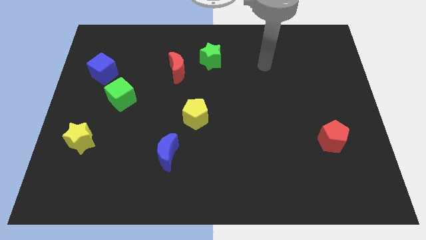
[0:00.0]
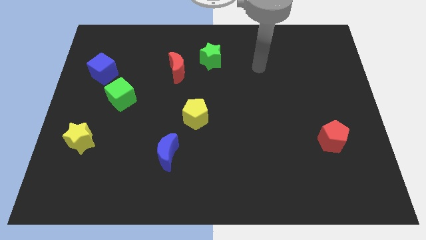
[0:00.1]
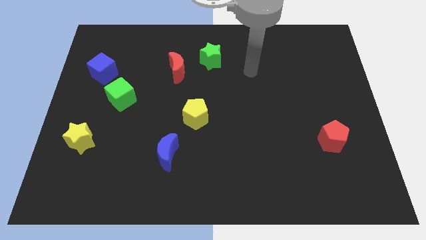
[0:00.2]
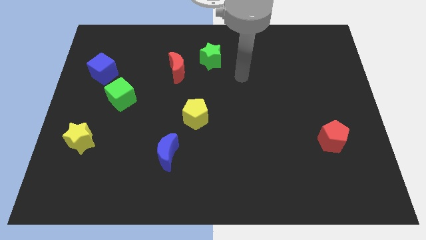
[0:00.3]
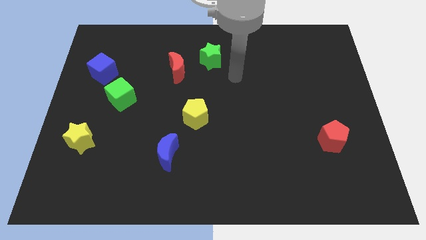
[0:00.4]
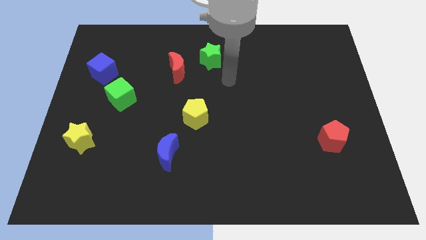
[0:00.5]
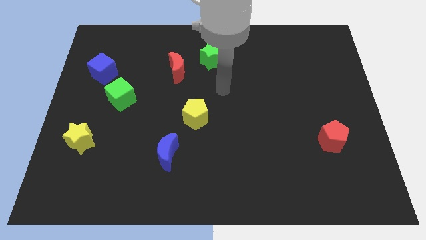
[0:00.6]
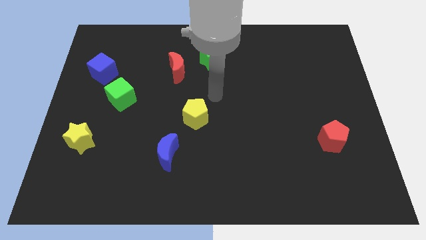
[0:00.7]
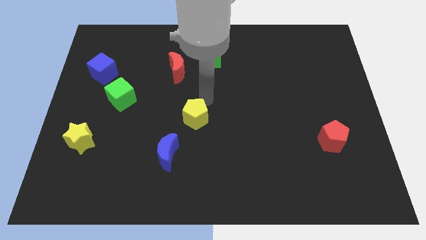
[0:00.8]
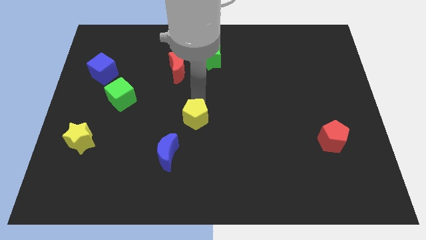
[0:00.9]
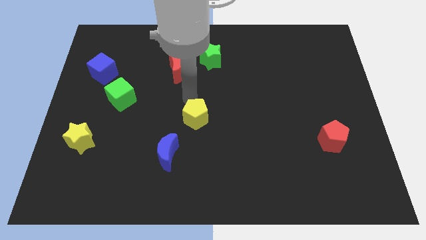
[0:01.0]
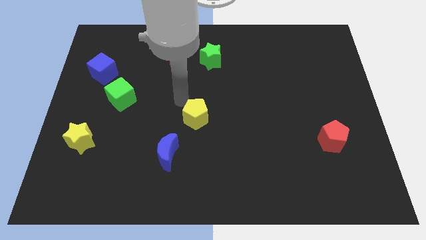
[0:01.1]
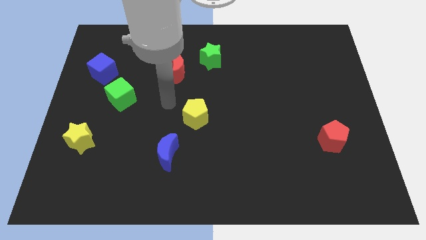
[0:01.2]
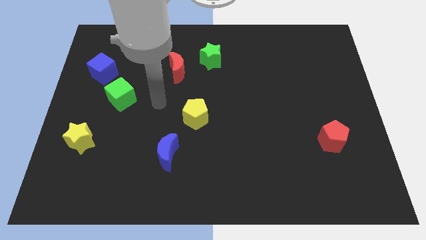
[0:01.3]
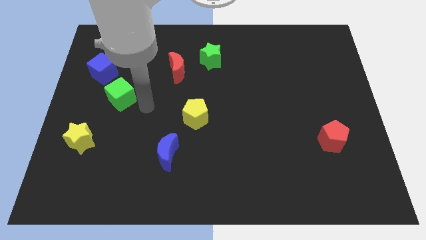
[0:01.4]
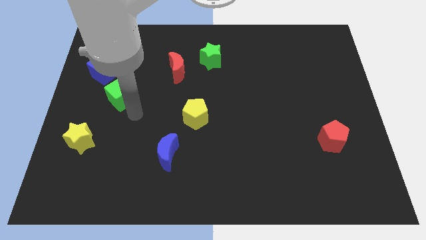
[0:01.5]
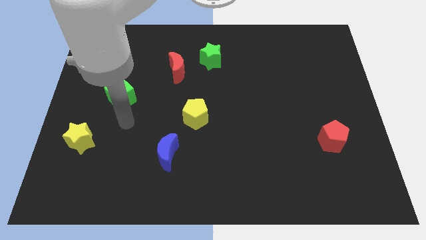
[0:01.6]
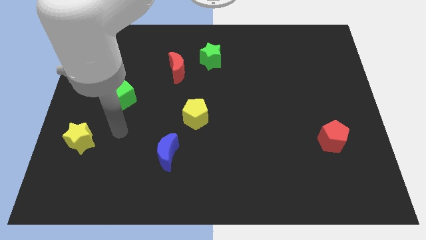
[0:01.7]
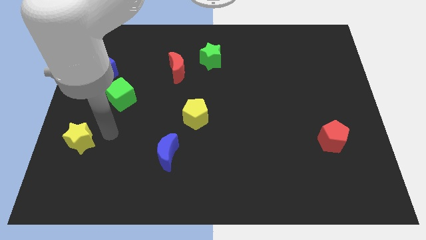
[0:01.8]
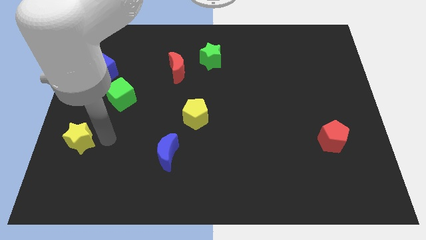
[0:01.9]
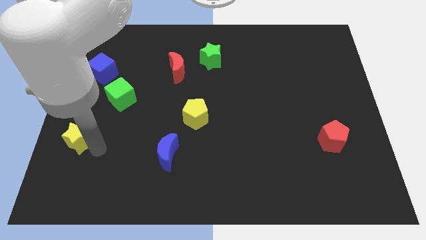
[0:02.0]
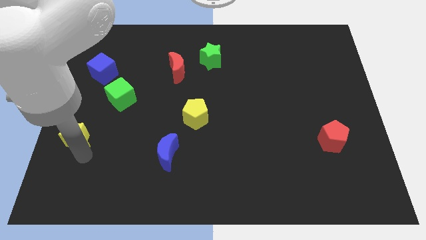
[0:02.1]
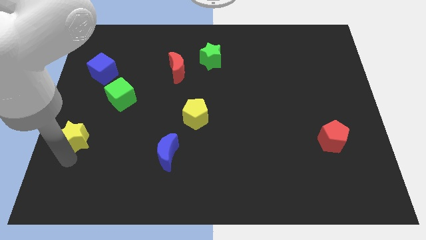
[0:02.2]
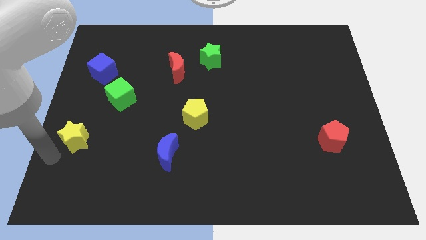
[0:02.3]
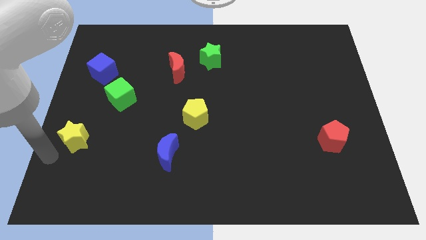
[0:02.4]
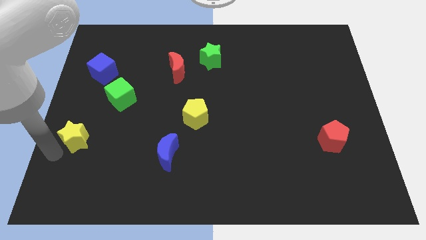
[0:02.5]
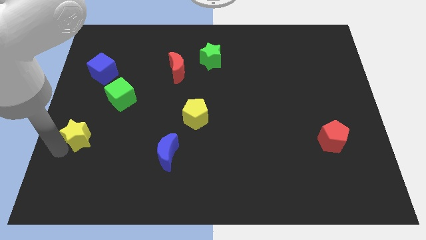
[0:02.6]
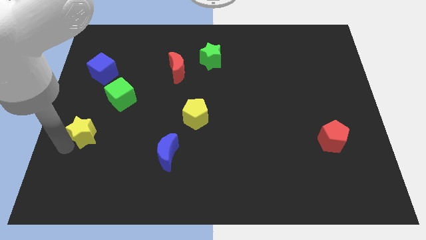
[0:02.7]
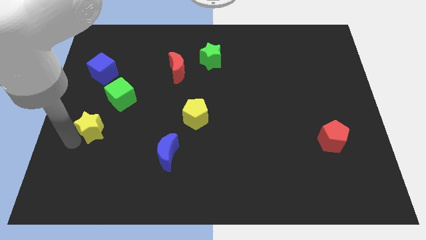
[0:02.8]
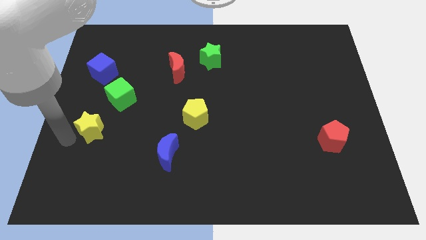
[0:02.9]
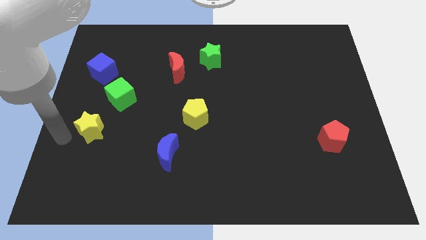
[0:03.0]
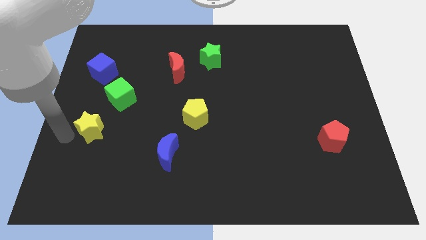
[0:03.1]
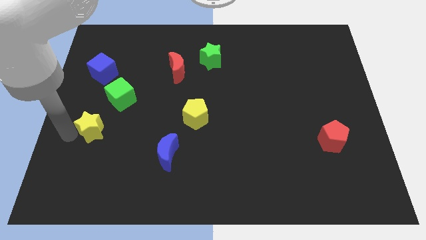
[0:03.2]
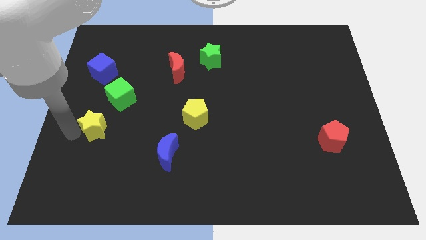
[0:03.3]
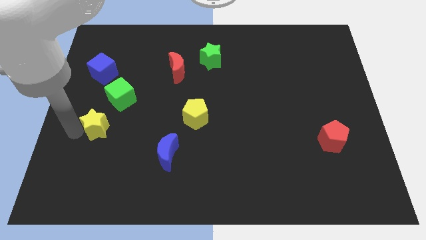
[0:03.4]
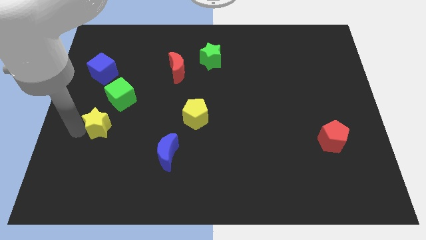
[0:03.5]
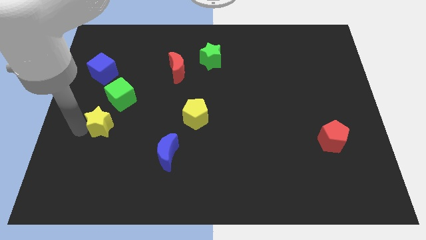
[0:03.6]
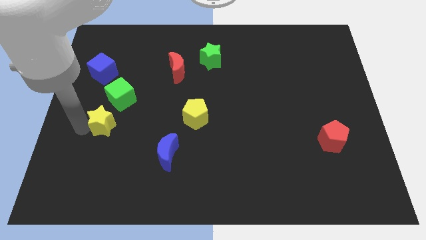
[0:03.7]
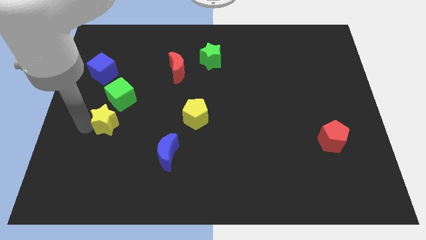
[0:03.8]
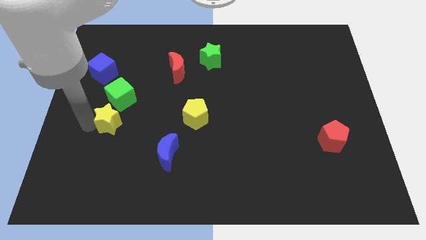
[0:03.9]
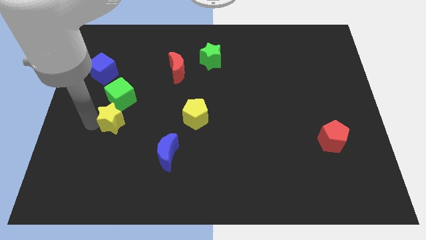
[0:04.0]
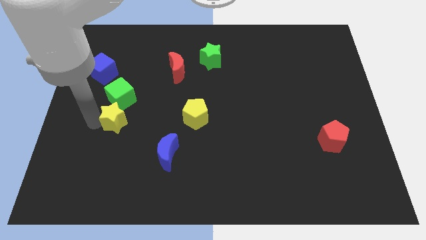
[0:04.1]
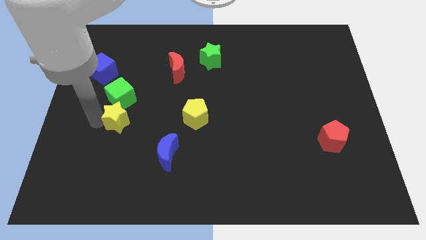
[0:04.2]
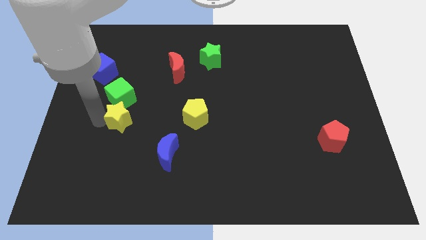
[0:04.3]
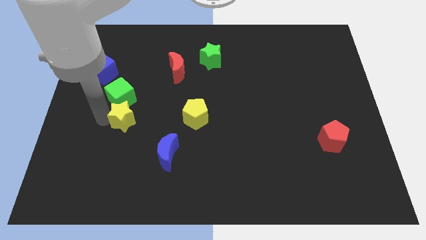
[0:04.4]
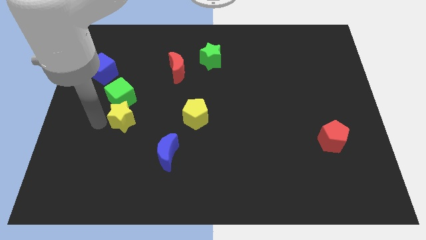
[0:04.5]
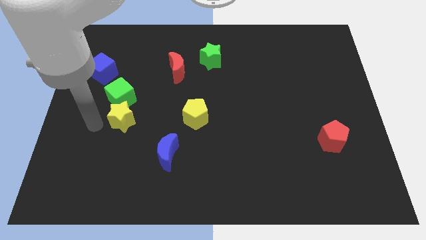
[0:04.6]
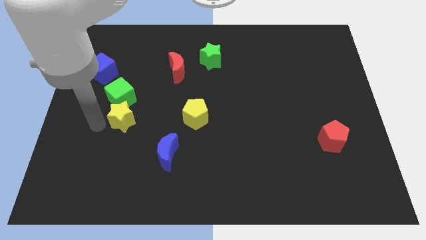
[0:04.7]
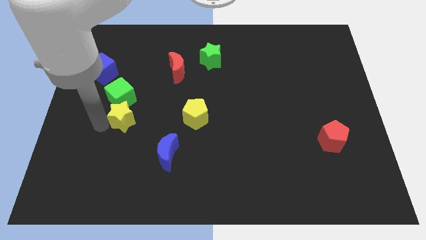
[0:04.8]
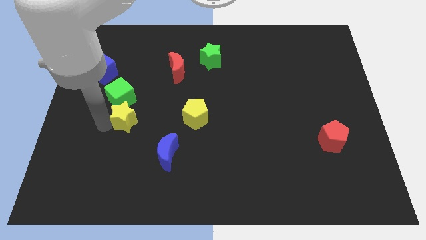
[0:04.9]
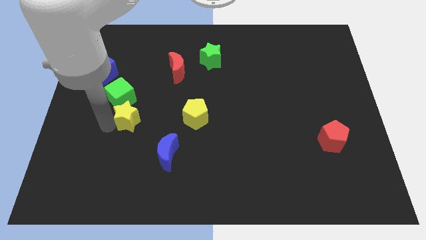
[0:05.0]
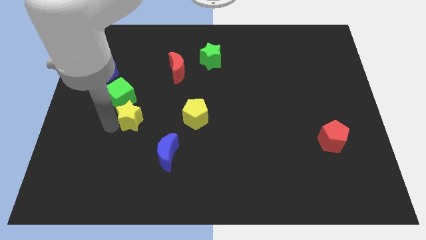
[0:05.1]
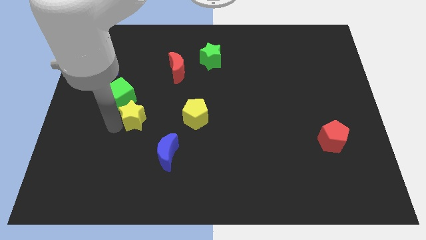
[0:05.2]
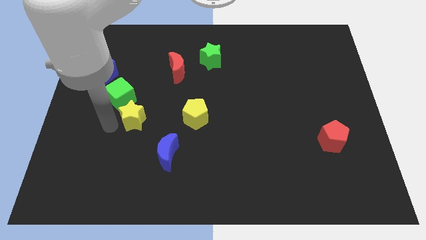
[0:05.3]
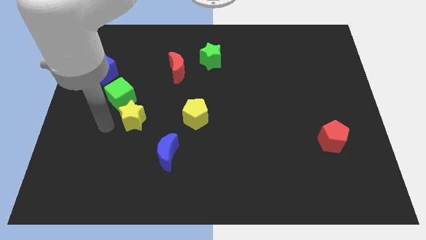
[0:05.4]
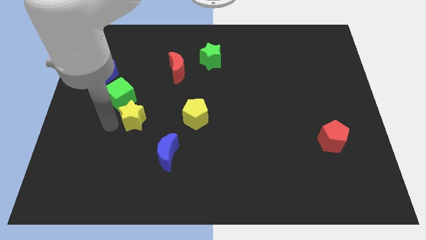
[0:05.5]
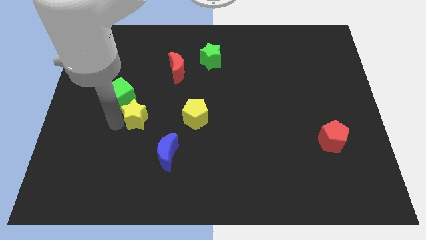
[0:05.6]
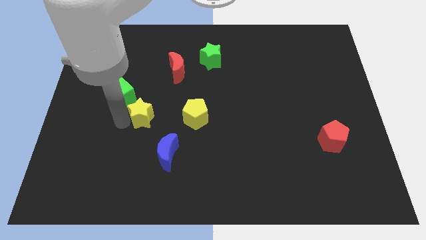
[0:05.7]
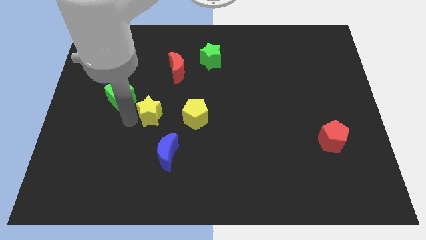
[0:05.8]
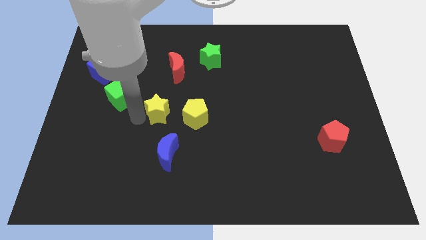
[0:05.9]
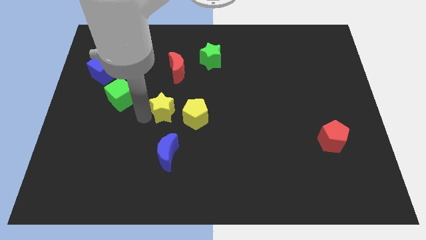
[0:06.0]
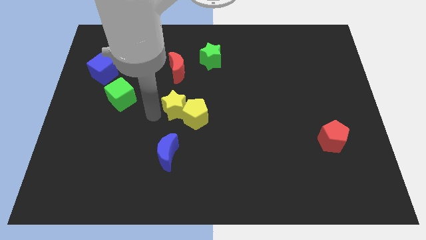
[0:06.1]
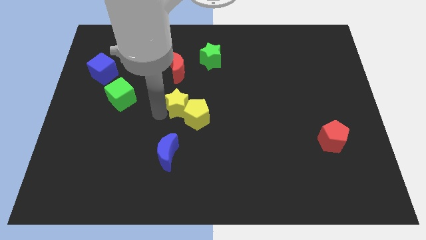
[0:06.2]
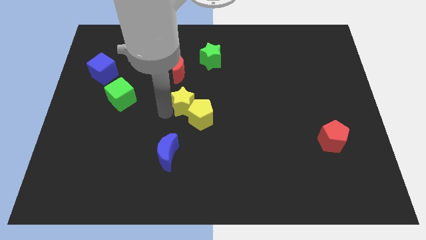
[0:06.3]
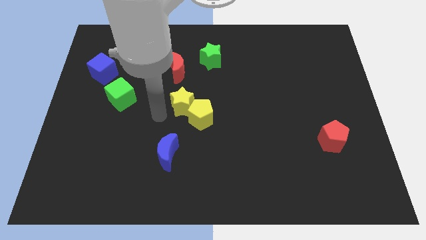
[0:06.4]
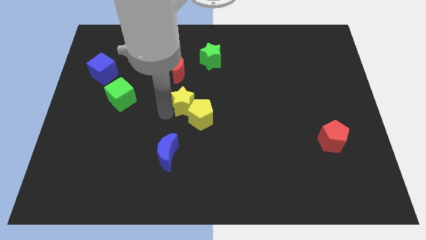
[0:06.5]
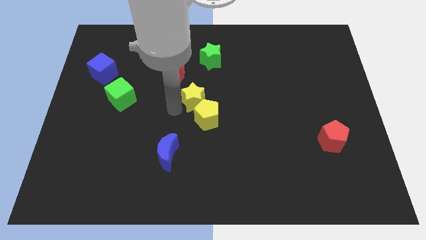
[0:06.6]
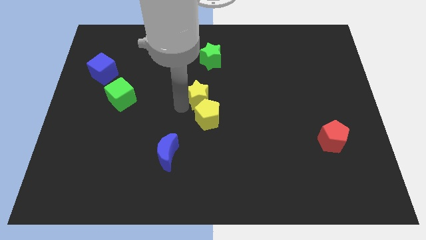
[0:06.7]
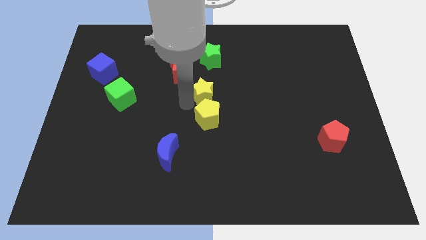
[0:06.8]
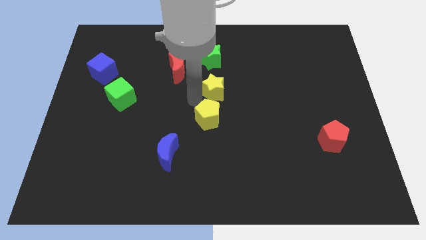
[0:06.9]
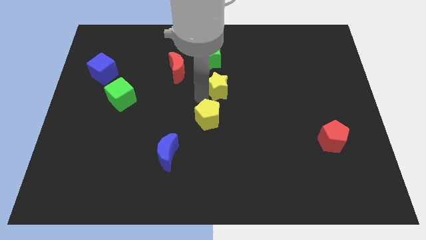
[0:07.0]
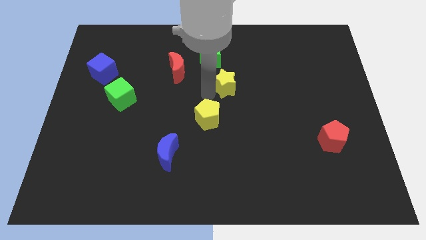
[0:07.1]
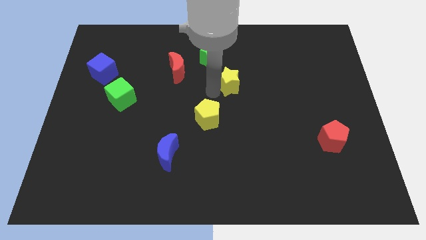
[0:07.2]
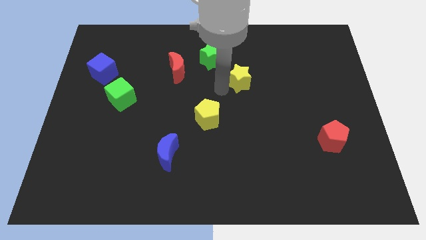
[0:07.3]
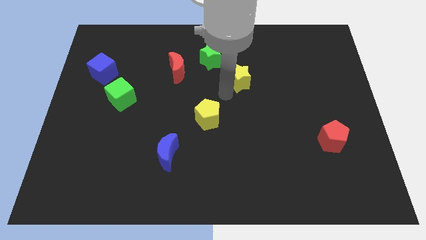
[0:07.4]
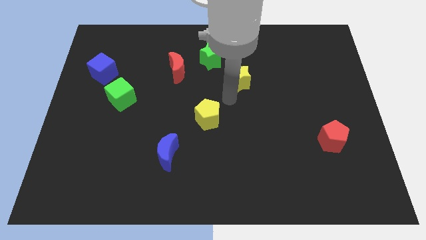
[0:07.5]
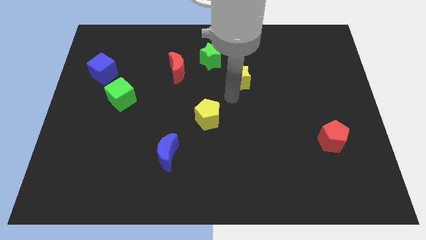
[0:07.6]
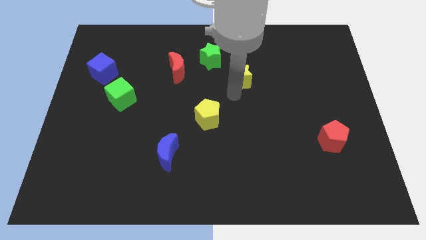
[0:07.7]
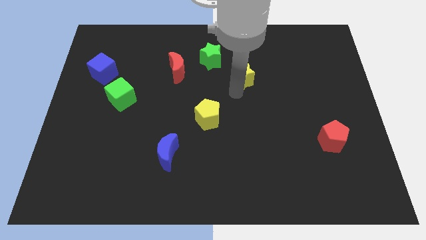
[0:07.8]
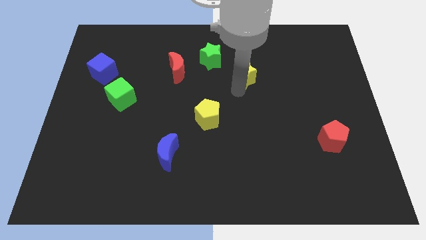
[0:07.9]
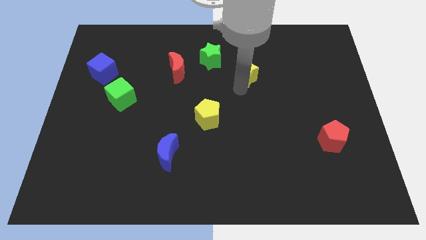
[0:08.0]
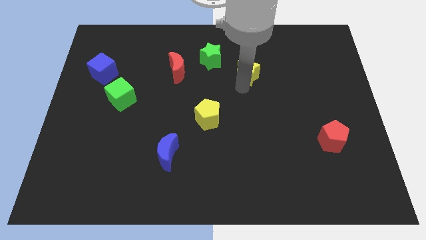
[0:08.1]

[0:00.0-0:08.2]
slide the yellow star to the right of the green star
